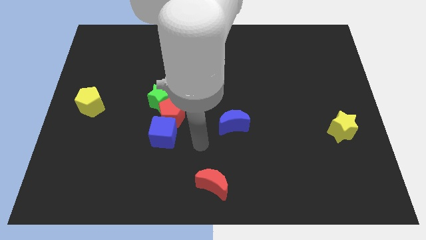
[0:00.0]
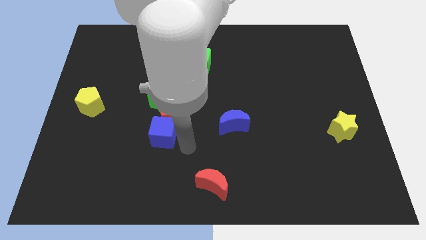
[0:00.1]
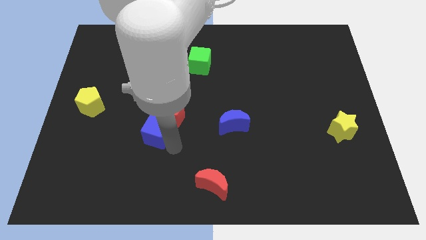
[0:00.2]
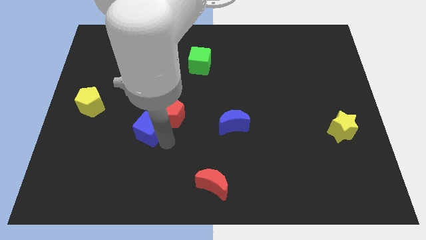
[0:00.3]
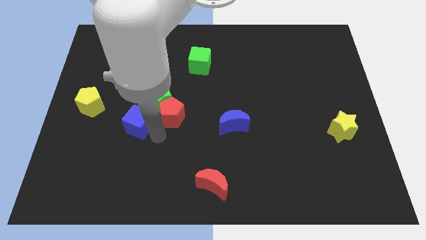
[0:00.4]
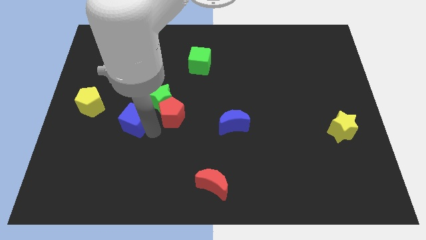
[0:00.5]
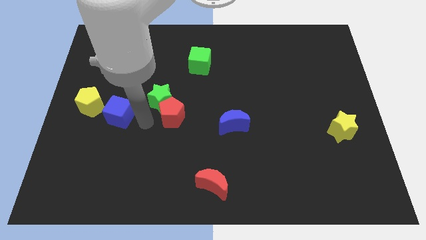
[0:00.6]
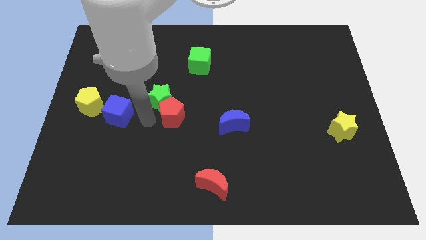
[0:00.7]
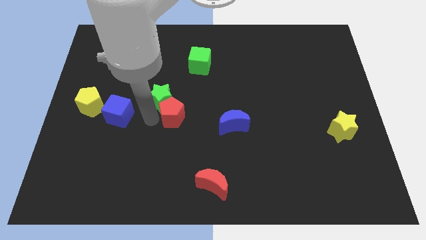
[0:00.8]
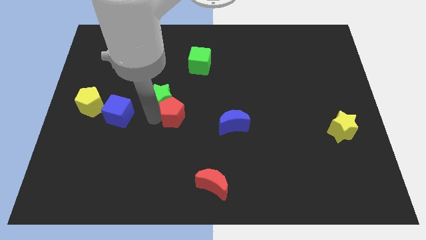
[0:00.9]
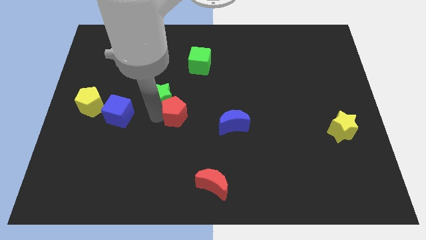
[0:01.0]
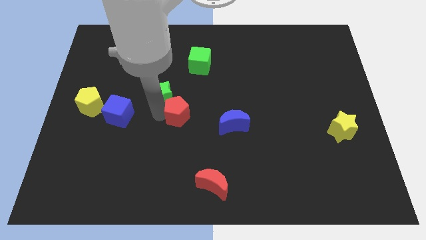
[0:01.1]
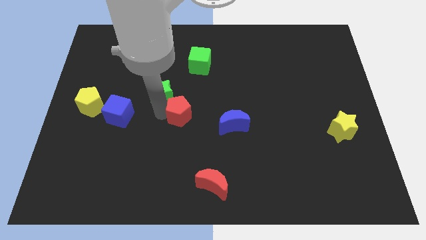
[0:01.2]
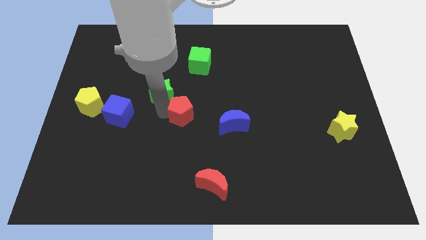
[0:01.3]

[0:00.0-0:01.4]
move the red pentagon away from the green star and blue cube

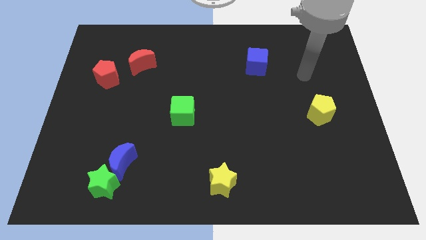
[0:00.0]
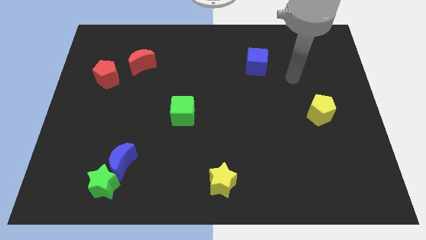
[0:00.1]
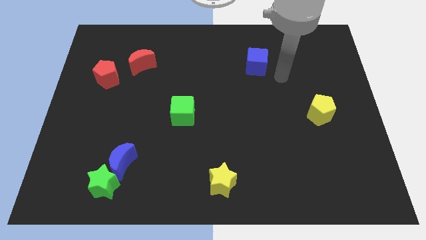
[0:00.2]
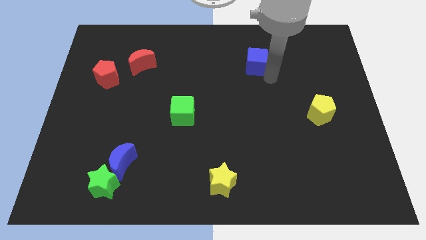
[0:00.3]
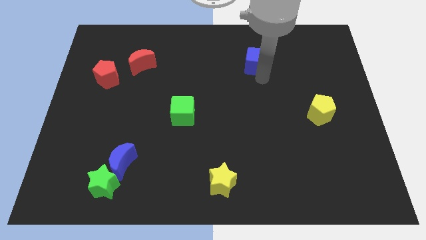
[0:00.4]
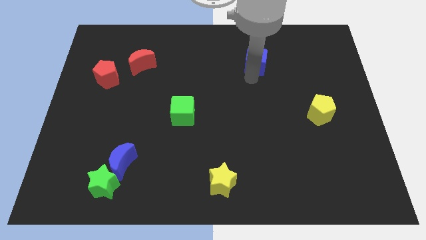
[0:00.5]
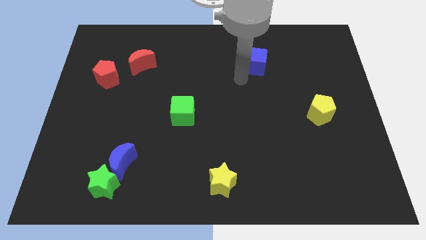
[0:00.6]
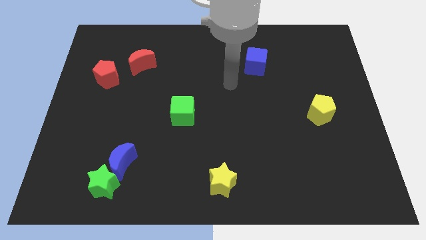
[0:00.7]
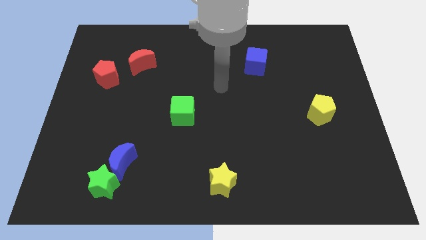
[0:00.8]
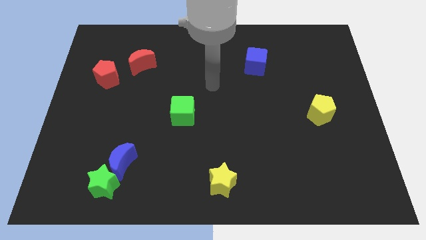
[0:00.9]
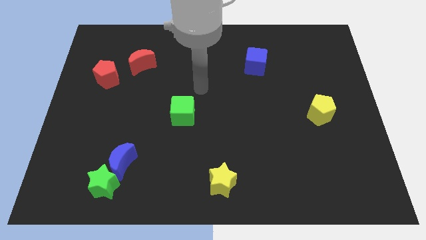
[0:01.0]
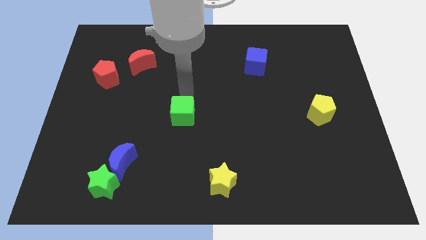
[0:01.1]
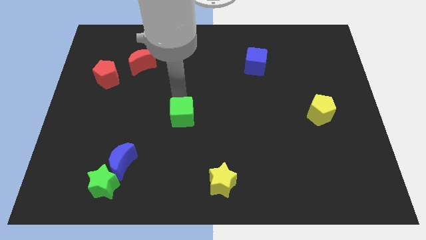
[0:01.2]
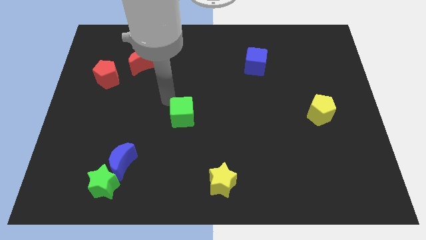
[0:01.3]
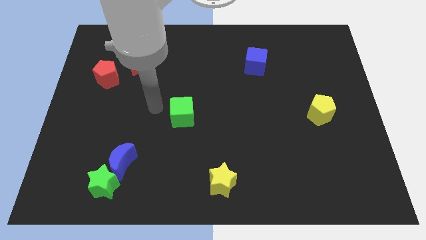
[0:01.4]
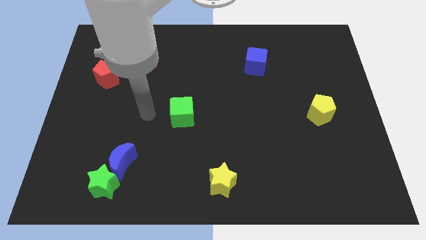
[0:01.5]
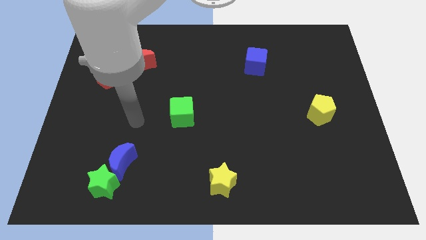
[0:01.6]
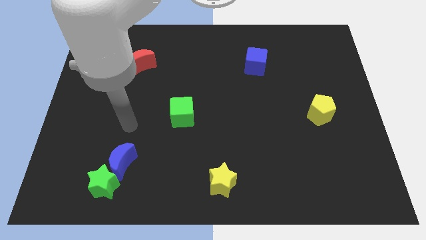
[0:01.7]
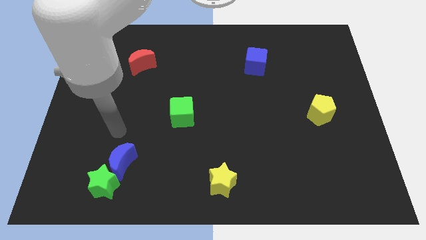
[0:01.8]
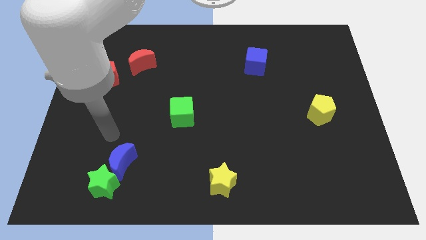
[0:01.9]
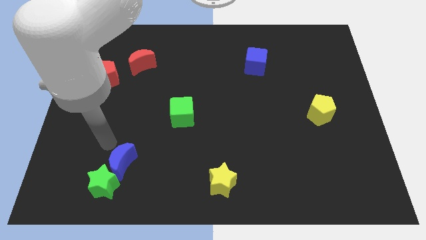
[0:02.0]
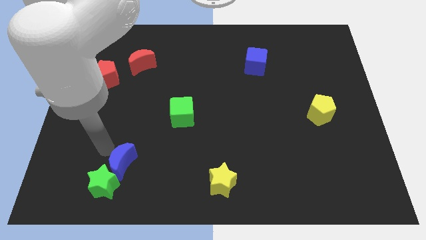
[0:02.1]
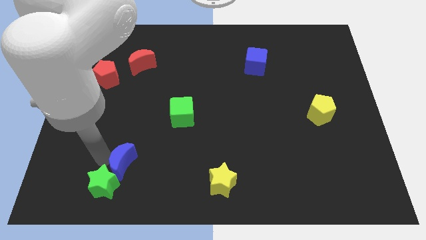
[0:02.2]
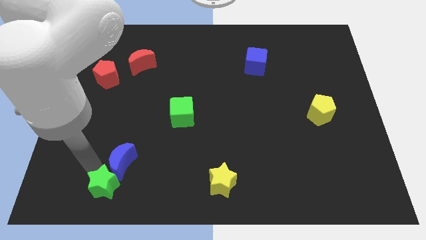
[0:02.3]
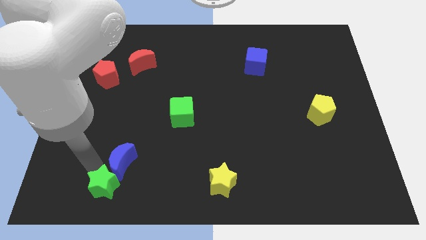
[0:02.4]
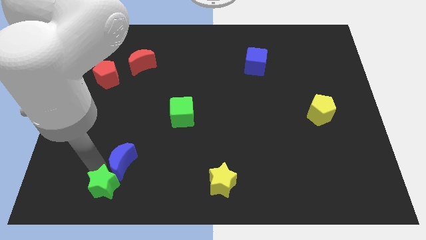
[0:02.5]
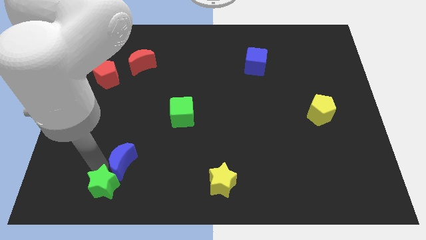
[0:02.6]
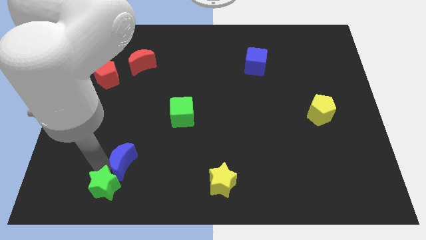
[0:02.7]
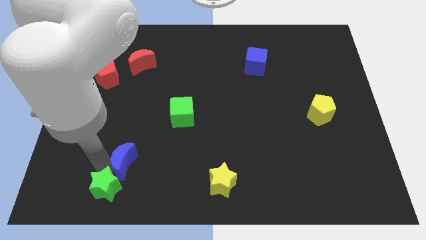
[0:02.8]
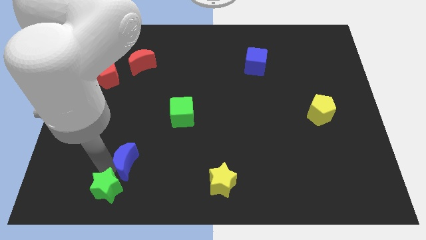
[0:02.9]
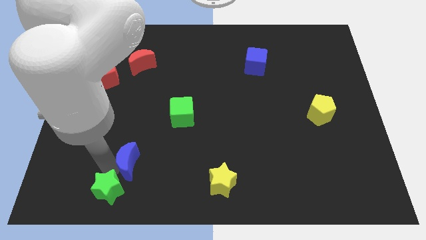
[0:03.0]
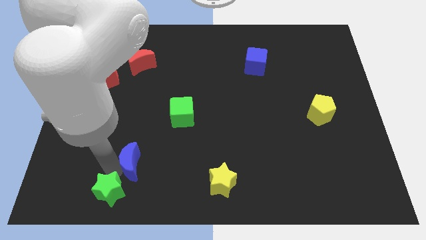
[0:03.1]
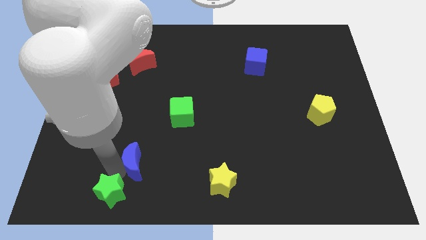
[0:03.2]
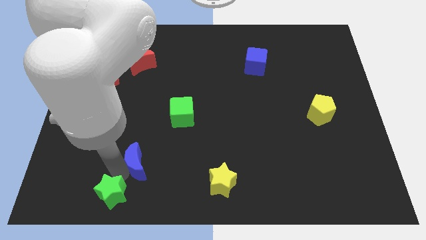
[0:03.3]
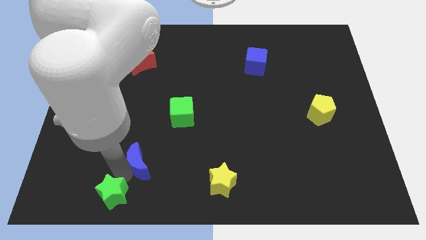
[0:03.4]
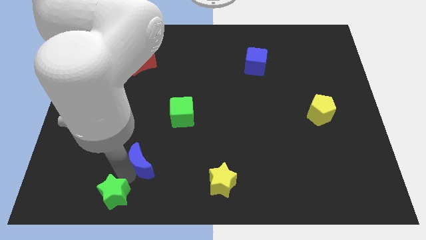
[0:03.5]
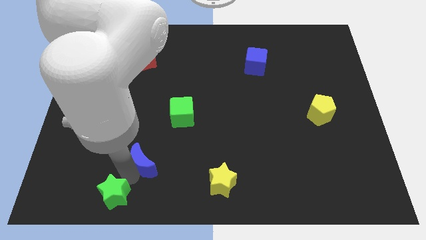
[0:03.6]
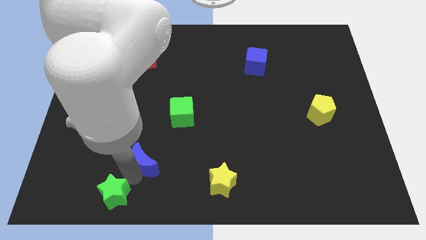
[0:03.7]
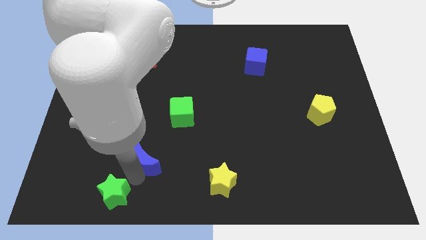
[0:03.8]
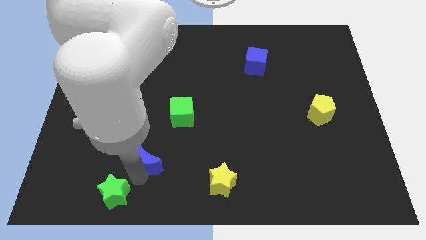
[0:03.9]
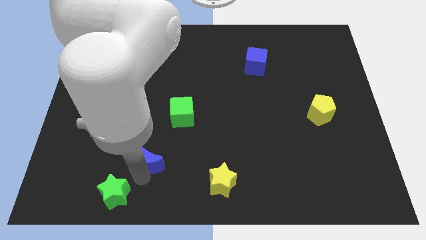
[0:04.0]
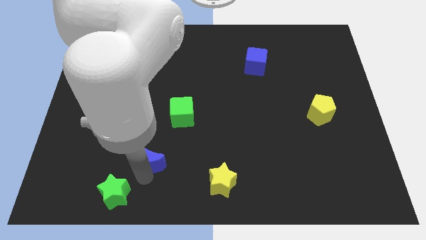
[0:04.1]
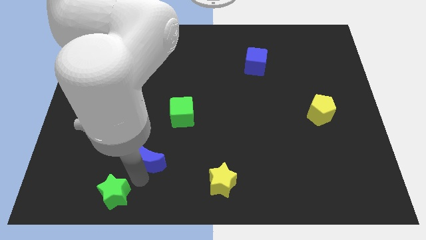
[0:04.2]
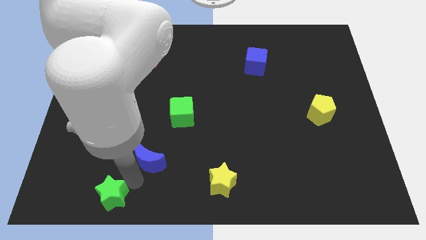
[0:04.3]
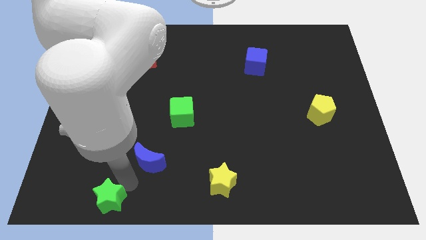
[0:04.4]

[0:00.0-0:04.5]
pull the blue moon apart from the green star

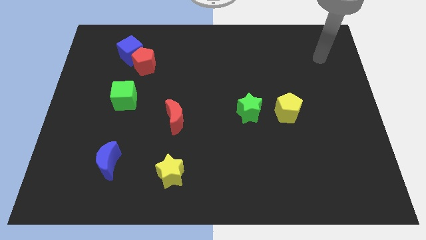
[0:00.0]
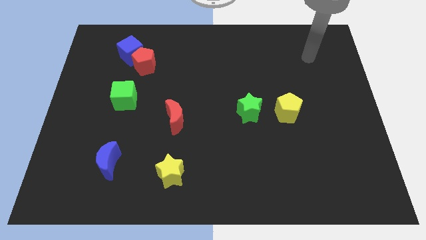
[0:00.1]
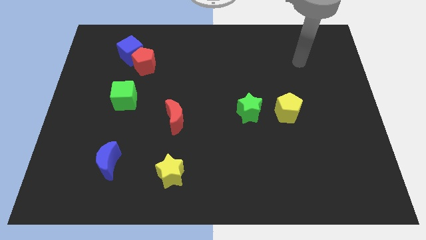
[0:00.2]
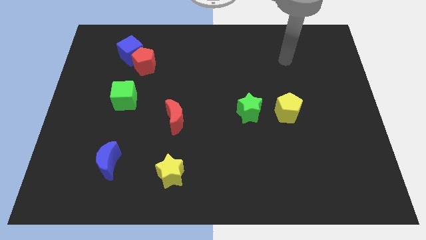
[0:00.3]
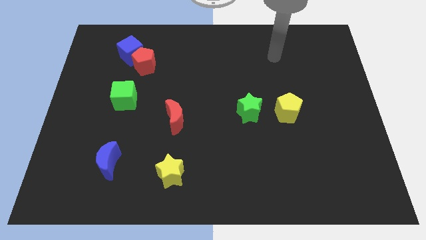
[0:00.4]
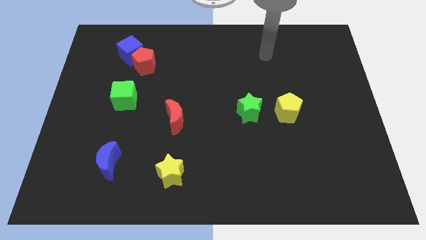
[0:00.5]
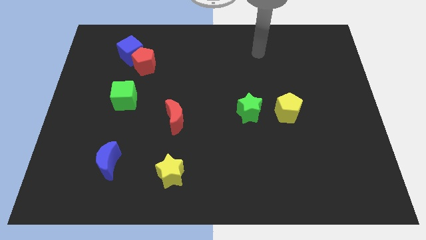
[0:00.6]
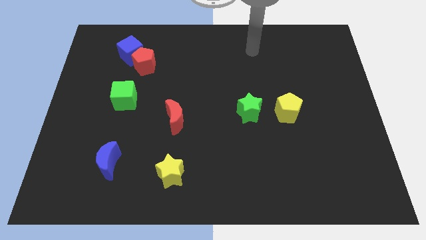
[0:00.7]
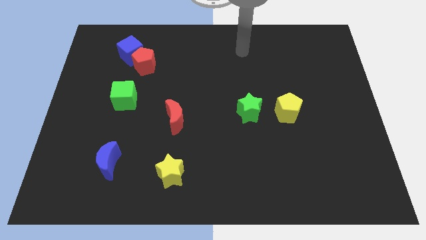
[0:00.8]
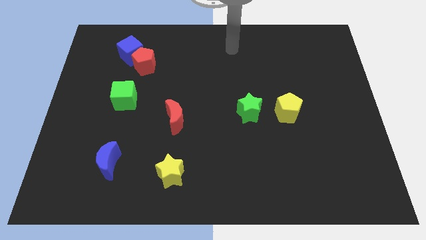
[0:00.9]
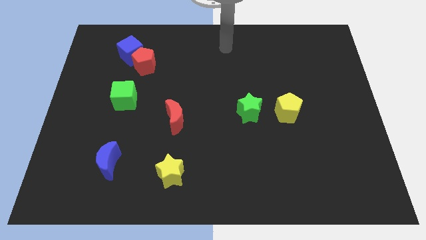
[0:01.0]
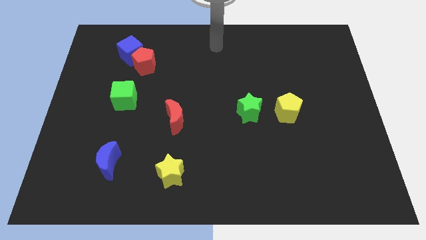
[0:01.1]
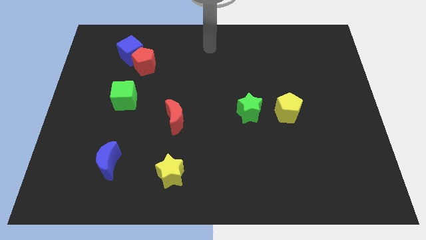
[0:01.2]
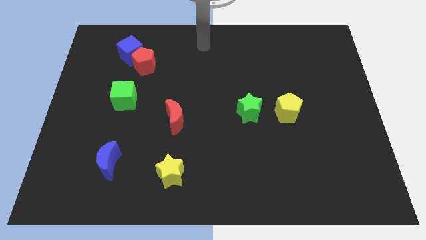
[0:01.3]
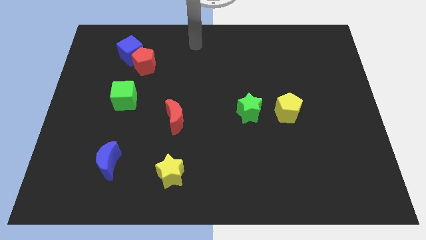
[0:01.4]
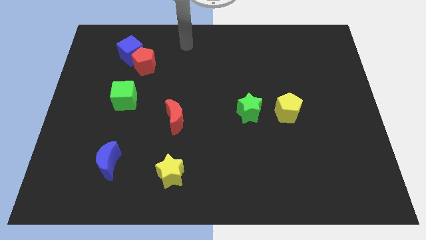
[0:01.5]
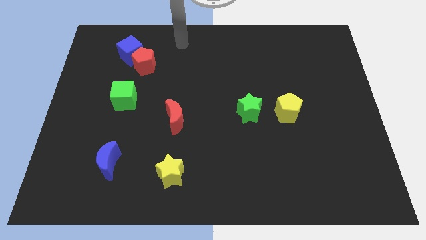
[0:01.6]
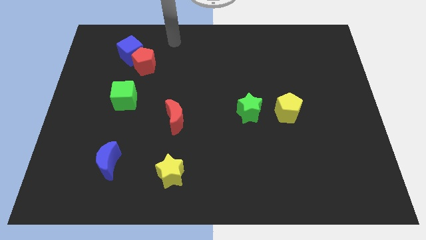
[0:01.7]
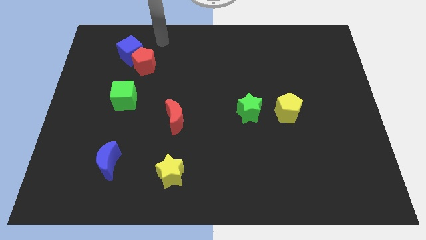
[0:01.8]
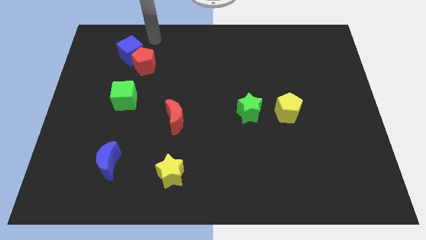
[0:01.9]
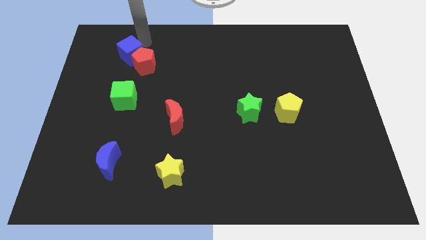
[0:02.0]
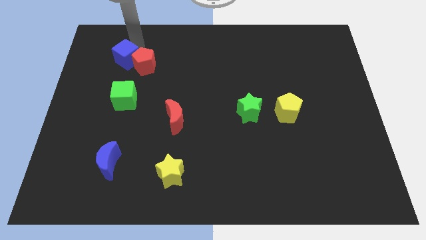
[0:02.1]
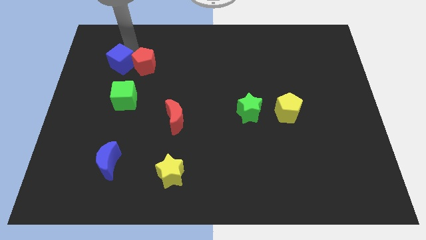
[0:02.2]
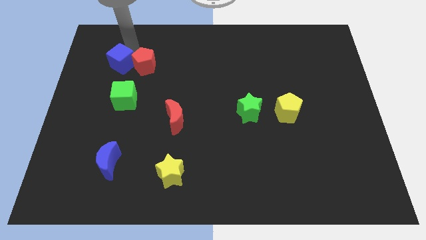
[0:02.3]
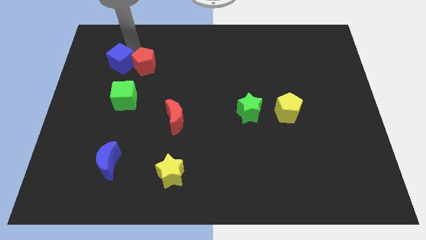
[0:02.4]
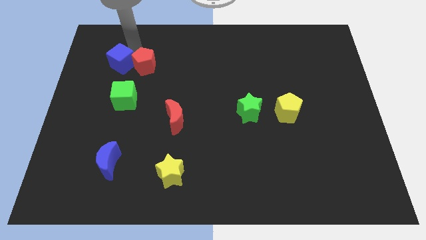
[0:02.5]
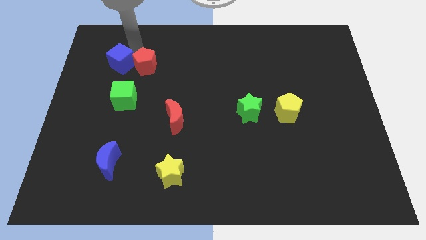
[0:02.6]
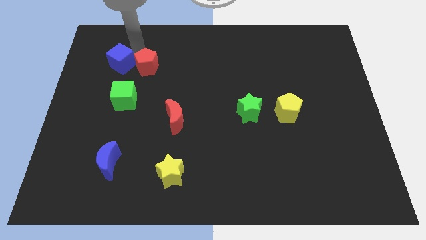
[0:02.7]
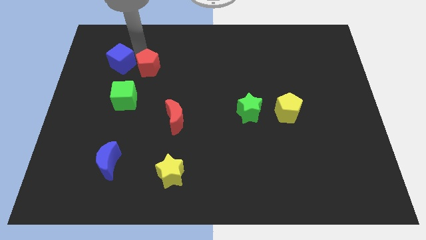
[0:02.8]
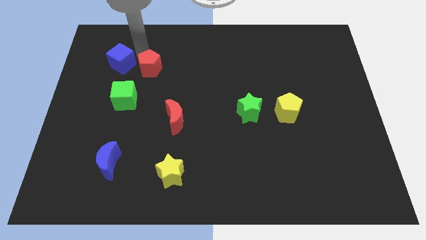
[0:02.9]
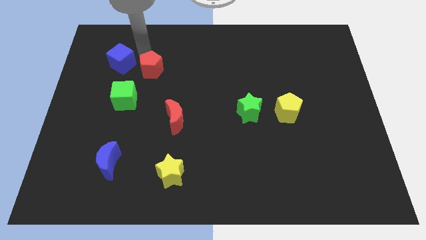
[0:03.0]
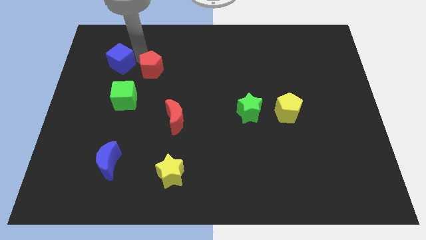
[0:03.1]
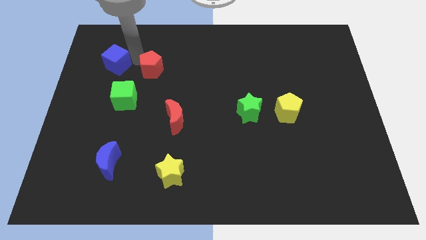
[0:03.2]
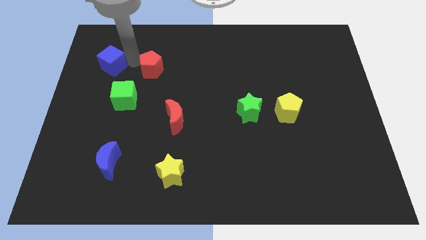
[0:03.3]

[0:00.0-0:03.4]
pull the red pentagon apart from the blue cube
